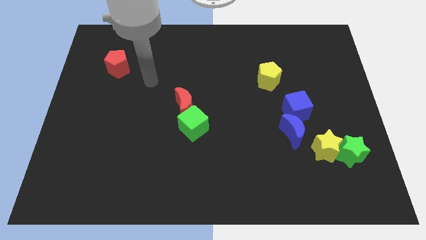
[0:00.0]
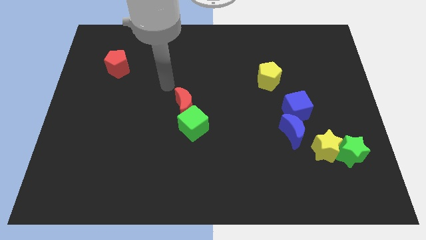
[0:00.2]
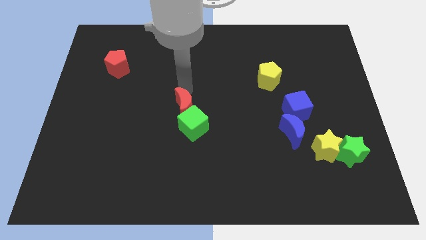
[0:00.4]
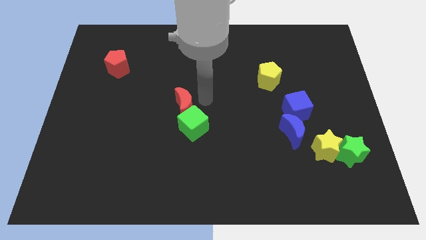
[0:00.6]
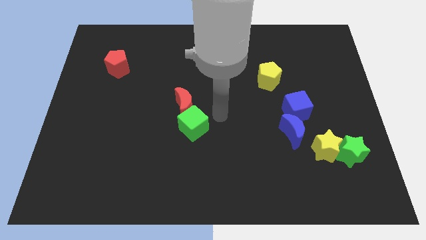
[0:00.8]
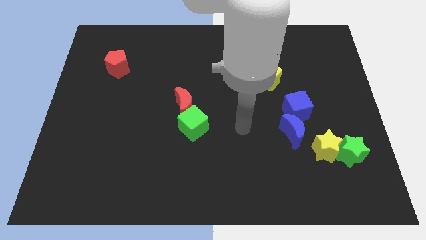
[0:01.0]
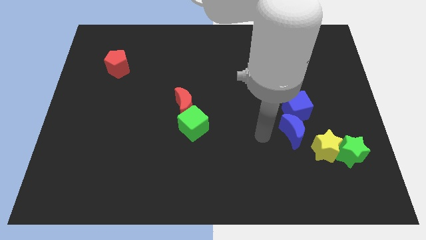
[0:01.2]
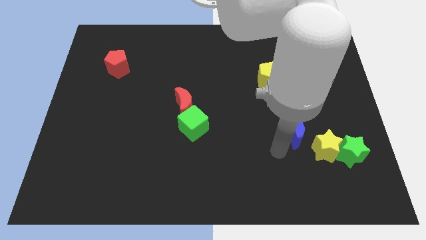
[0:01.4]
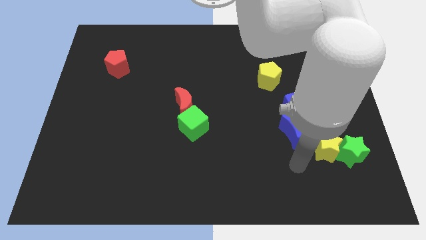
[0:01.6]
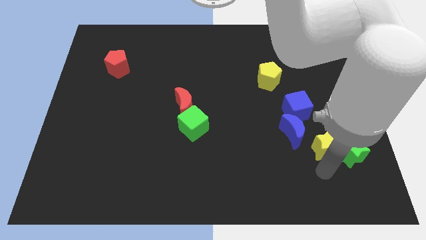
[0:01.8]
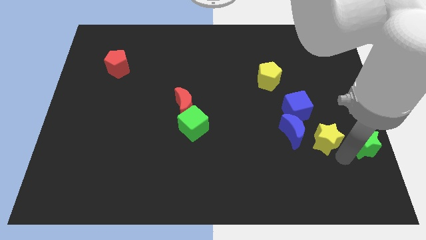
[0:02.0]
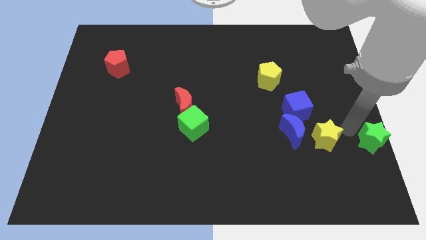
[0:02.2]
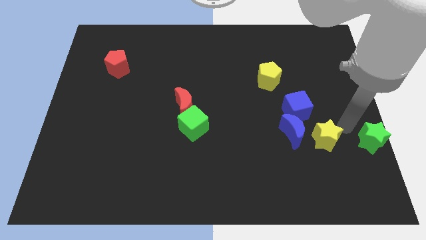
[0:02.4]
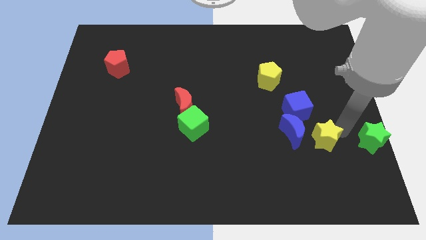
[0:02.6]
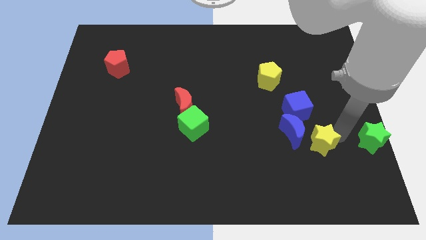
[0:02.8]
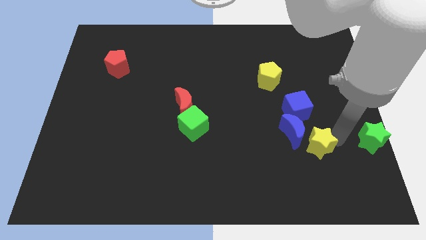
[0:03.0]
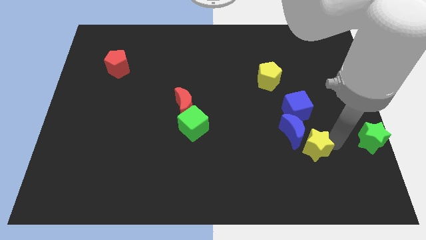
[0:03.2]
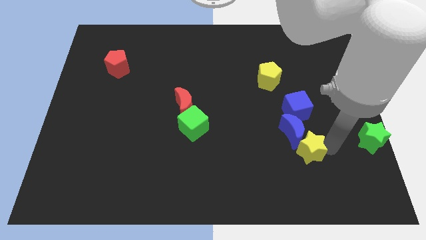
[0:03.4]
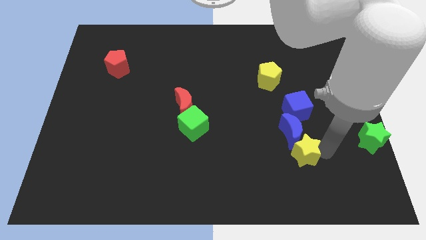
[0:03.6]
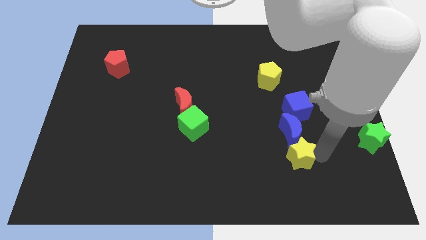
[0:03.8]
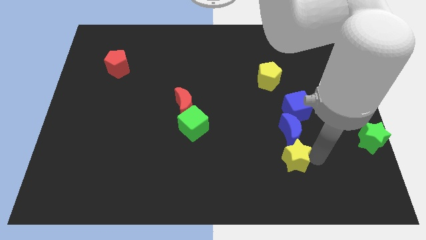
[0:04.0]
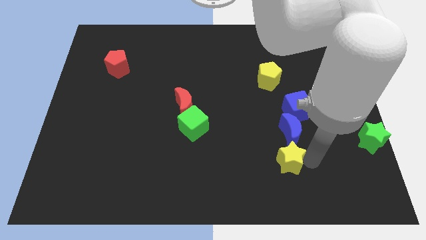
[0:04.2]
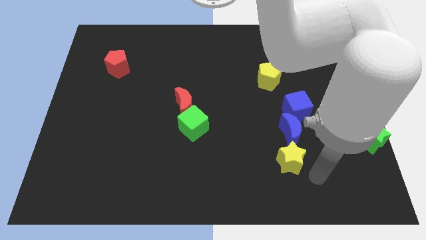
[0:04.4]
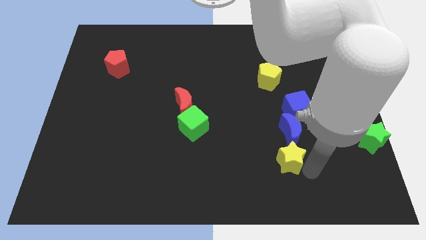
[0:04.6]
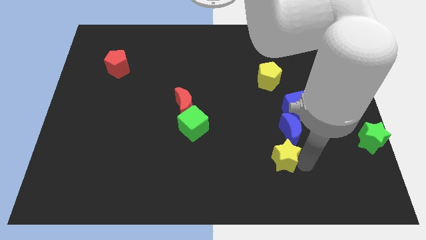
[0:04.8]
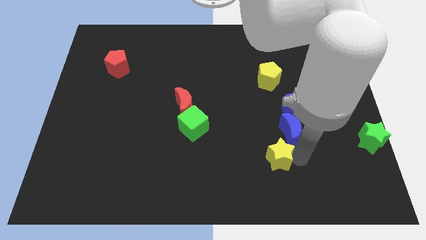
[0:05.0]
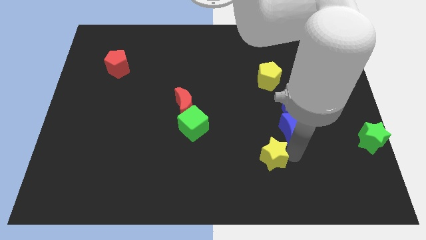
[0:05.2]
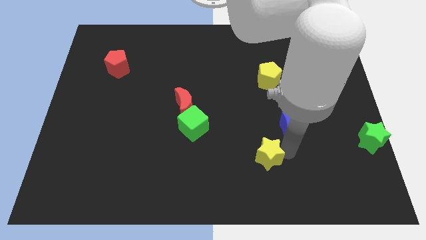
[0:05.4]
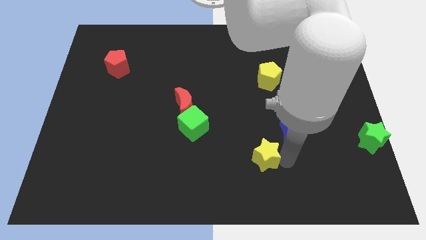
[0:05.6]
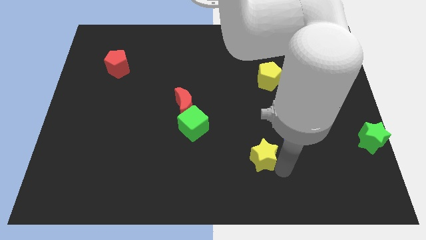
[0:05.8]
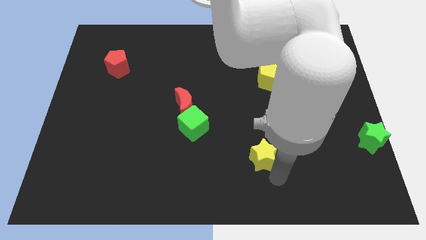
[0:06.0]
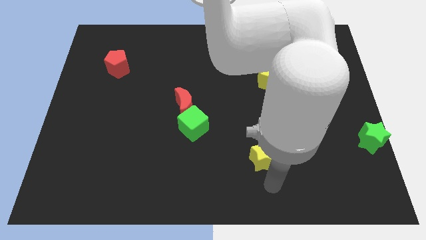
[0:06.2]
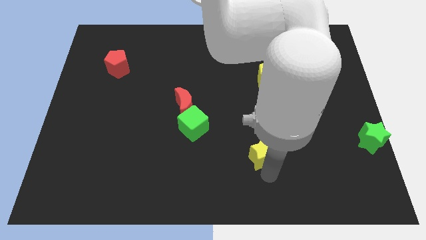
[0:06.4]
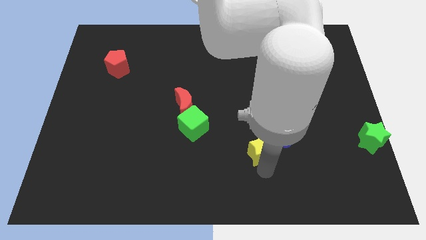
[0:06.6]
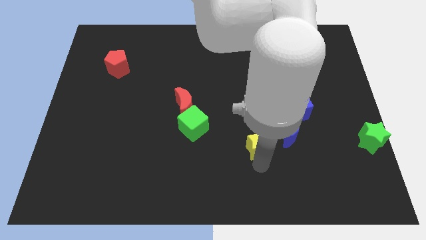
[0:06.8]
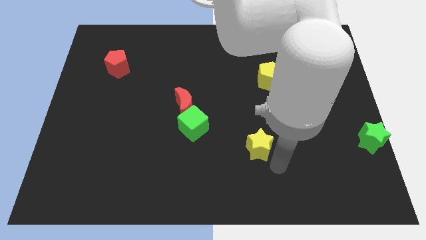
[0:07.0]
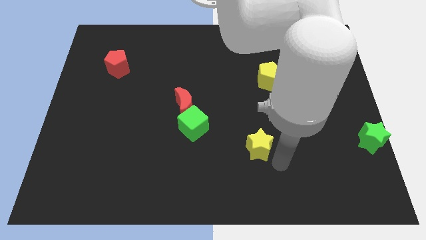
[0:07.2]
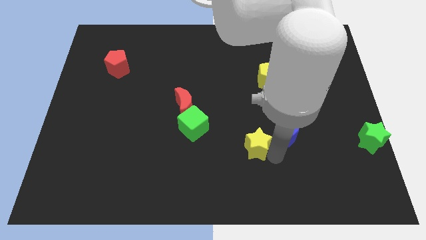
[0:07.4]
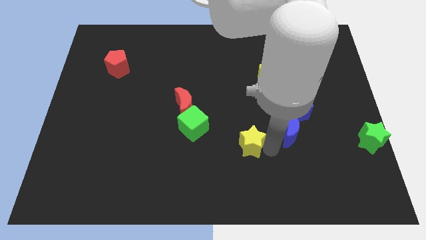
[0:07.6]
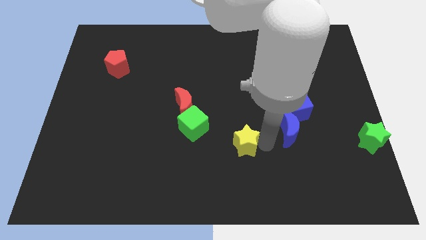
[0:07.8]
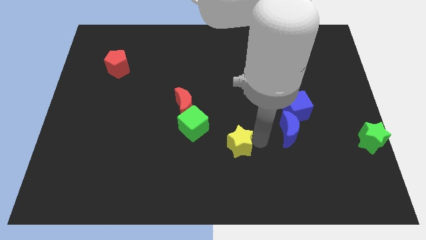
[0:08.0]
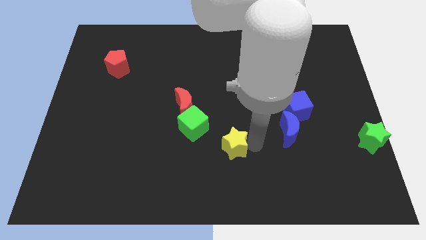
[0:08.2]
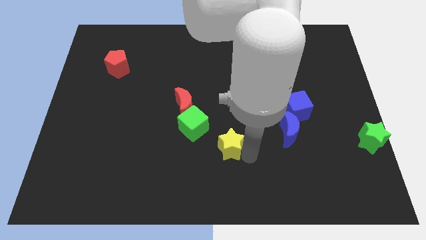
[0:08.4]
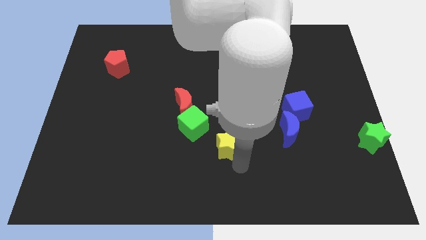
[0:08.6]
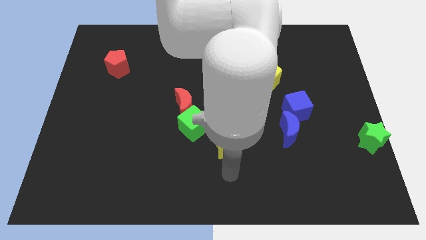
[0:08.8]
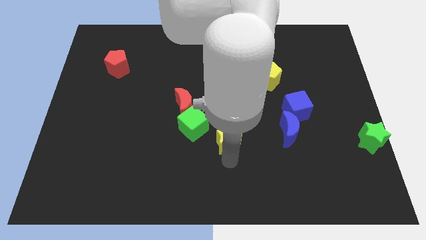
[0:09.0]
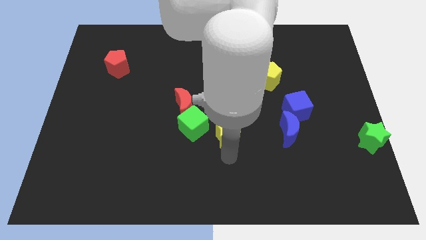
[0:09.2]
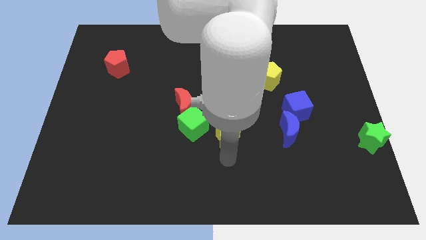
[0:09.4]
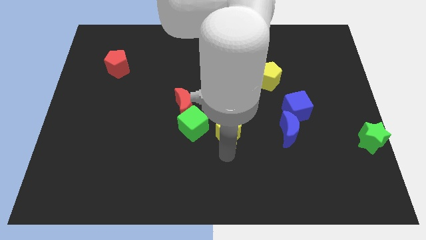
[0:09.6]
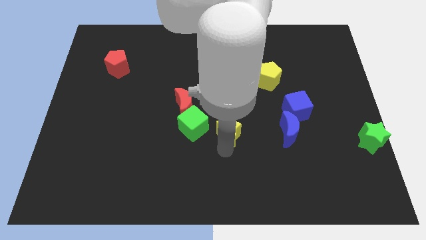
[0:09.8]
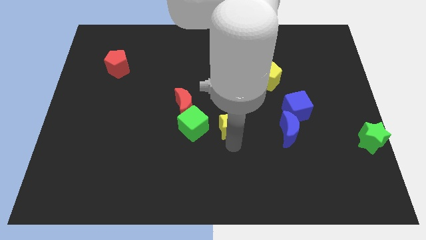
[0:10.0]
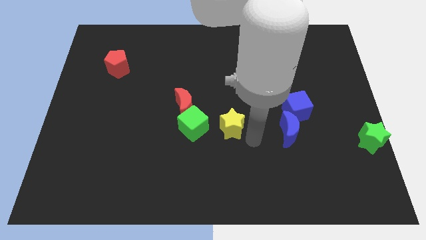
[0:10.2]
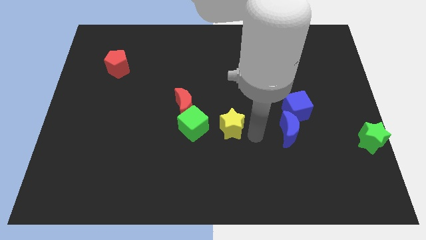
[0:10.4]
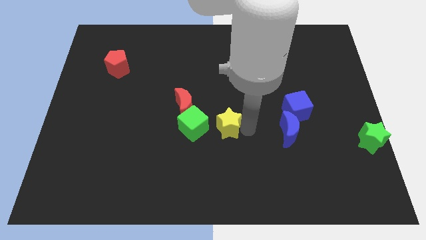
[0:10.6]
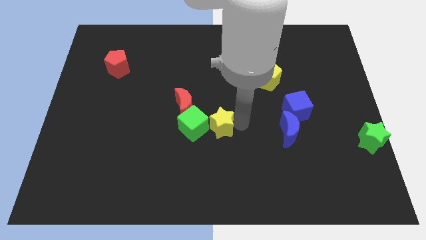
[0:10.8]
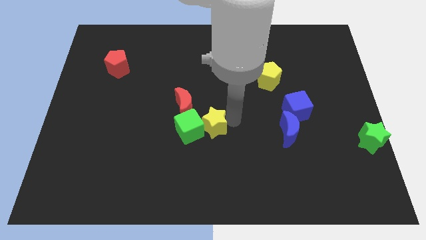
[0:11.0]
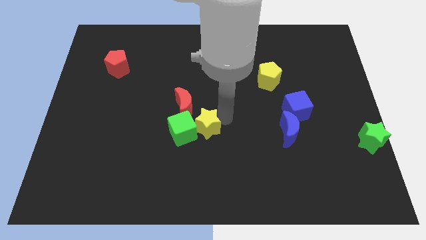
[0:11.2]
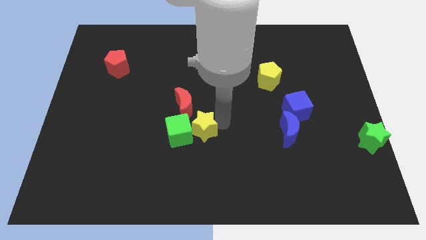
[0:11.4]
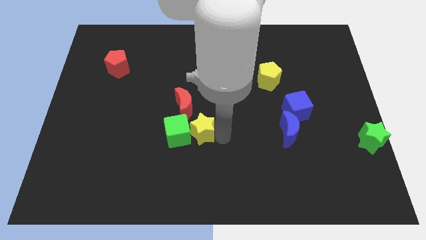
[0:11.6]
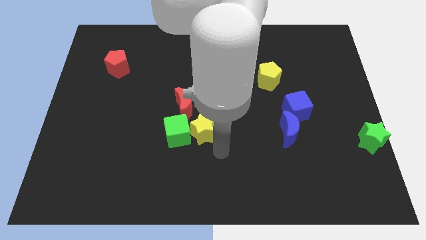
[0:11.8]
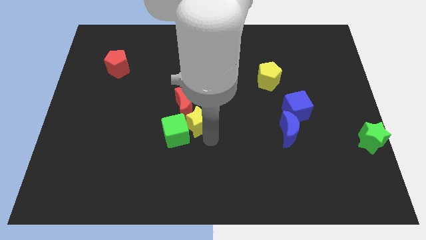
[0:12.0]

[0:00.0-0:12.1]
move the yellow star close to the red moon

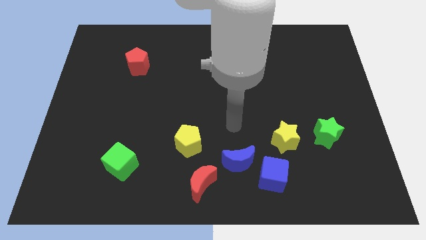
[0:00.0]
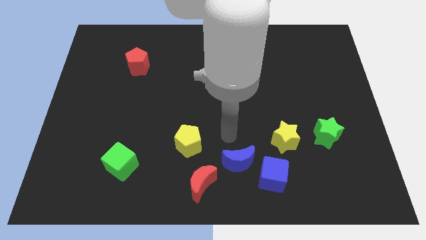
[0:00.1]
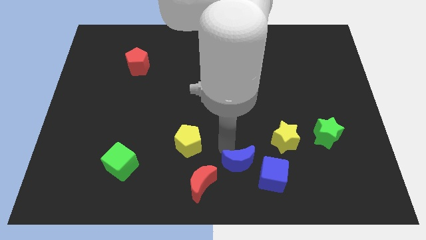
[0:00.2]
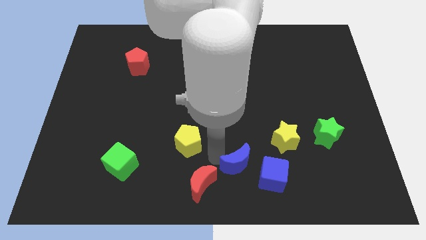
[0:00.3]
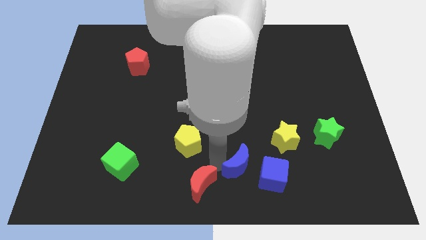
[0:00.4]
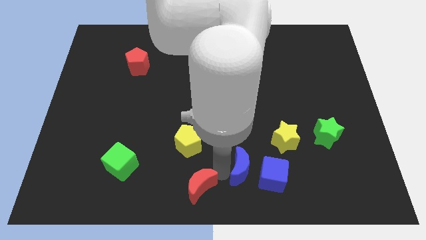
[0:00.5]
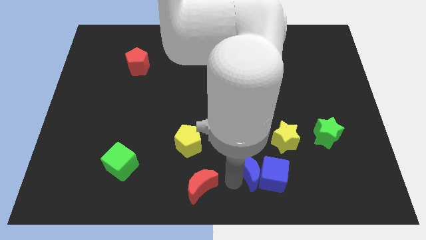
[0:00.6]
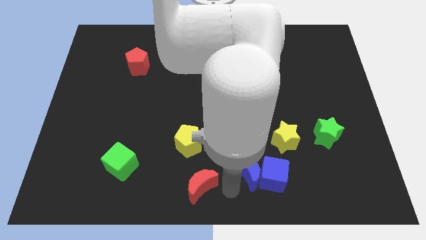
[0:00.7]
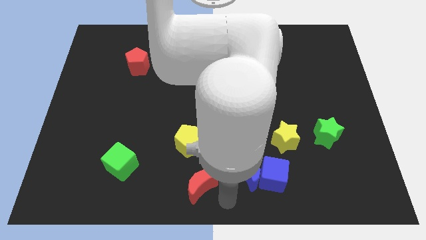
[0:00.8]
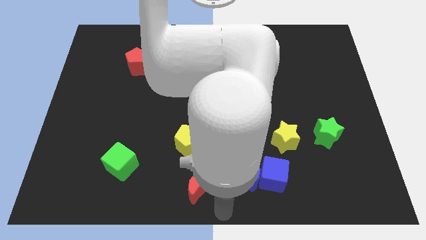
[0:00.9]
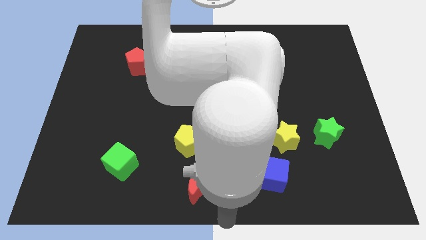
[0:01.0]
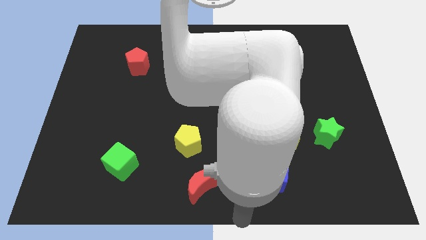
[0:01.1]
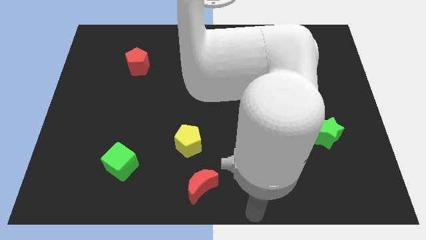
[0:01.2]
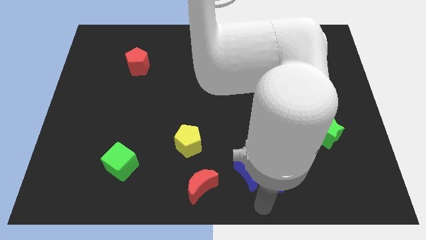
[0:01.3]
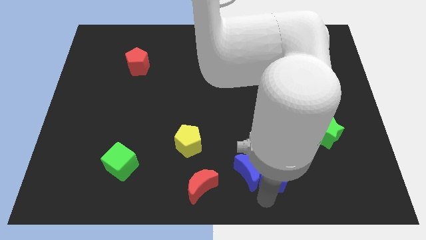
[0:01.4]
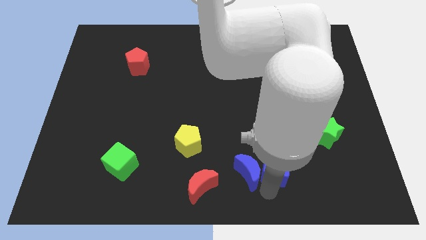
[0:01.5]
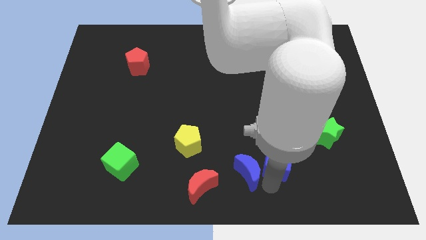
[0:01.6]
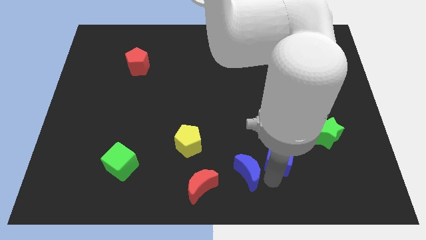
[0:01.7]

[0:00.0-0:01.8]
slide the blue cube towards the yellow star
